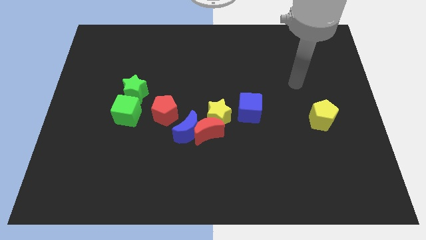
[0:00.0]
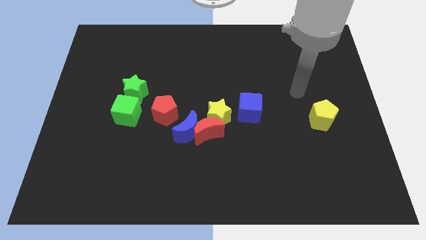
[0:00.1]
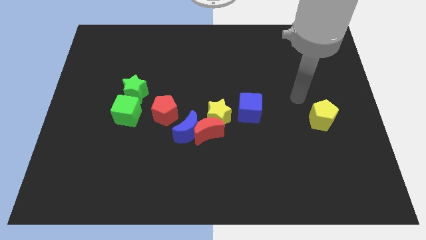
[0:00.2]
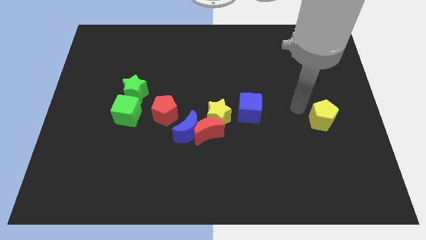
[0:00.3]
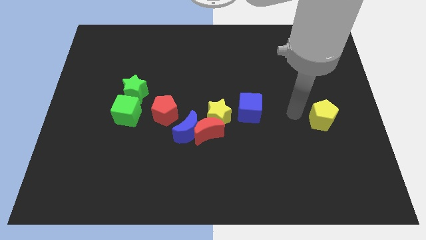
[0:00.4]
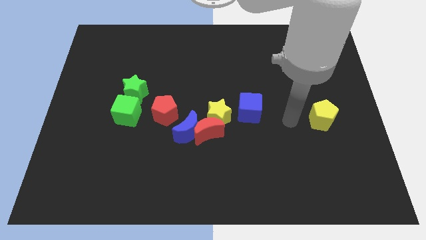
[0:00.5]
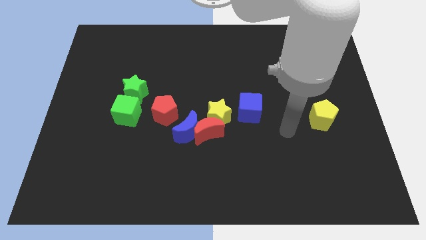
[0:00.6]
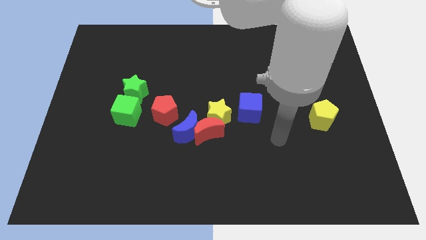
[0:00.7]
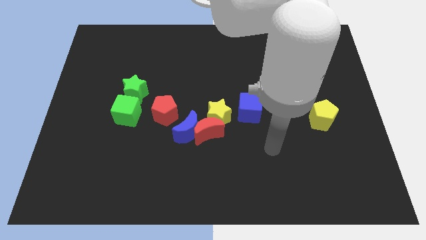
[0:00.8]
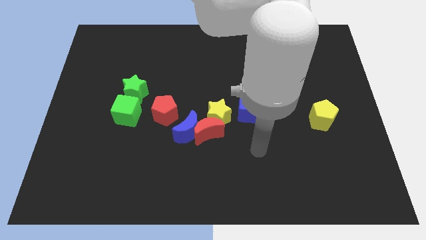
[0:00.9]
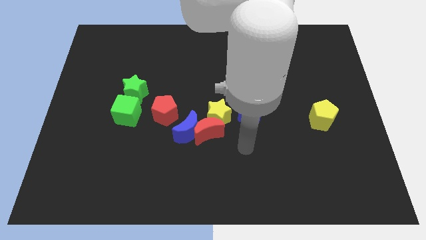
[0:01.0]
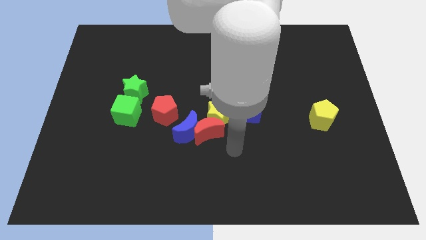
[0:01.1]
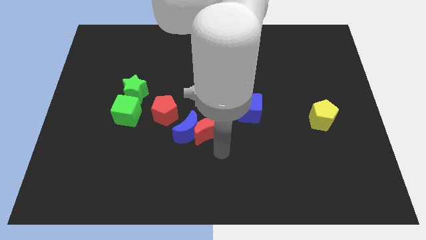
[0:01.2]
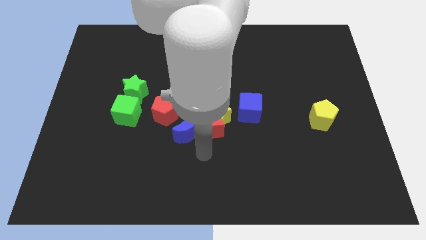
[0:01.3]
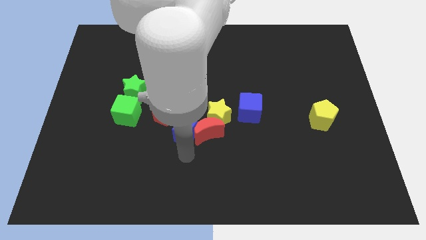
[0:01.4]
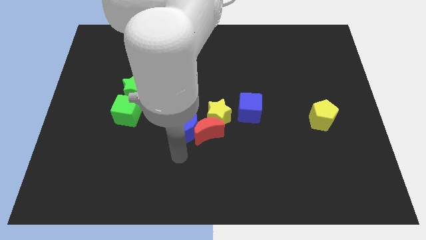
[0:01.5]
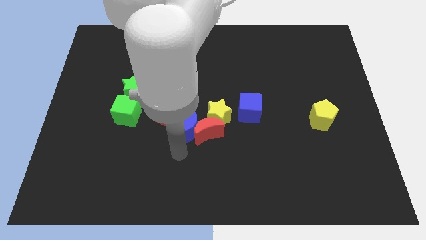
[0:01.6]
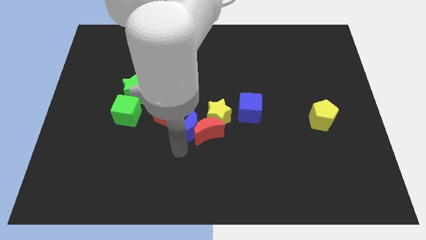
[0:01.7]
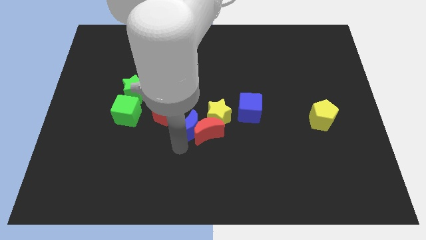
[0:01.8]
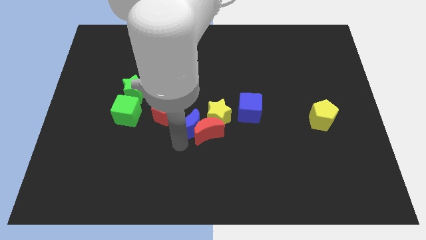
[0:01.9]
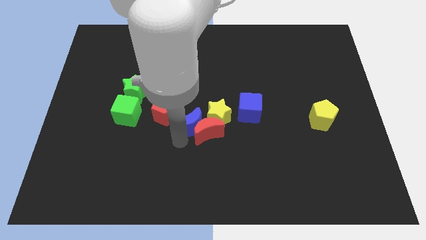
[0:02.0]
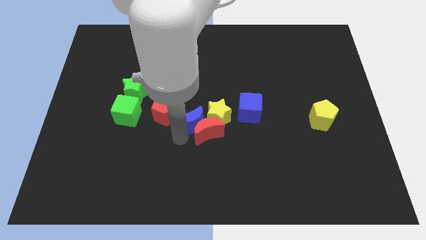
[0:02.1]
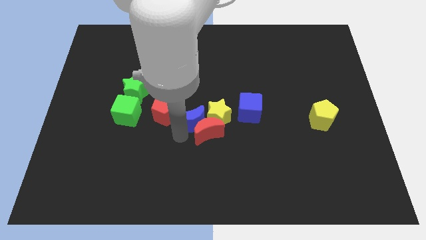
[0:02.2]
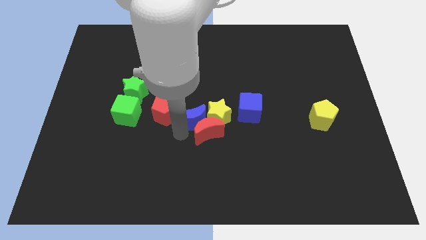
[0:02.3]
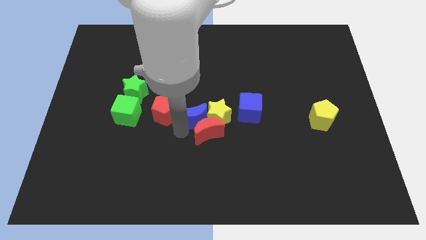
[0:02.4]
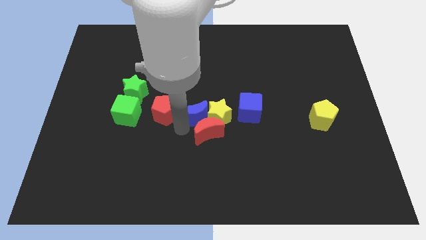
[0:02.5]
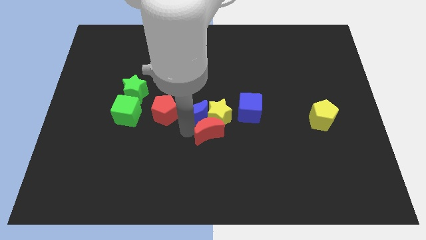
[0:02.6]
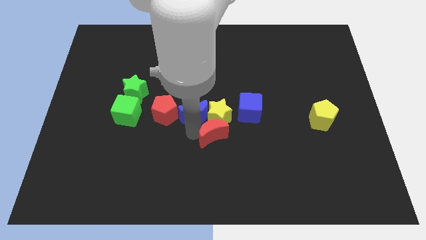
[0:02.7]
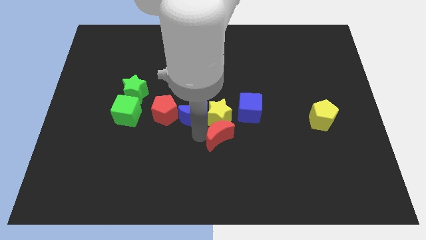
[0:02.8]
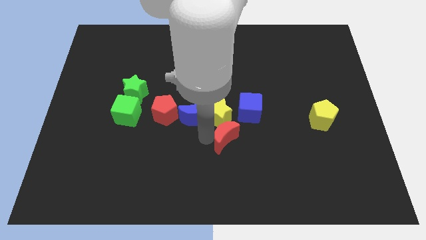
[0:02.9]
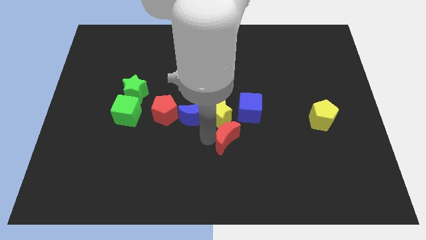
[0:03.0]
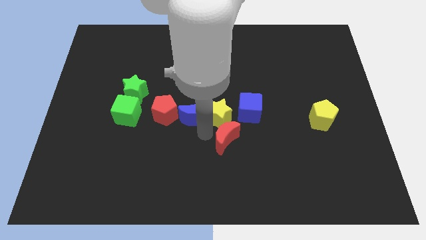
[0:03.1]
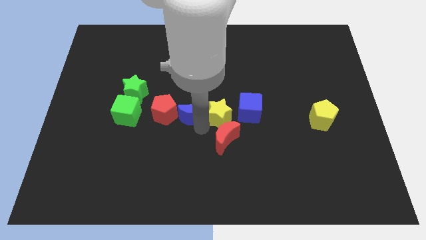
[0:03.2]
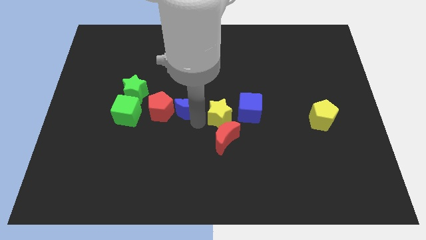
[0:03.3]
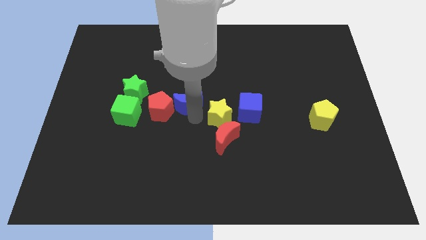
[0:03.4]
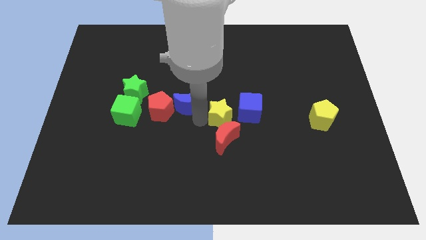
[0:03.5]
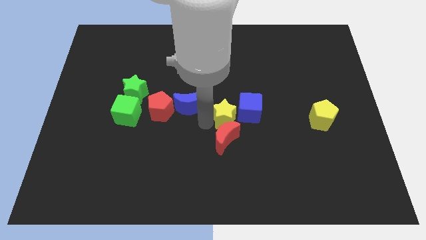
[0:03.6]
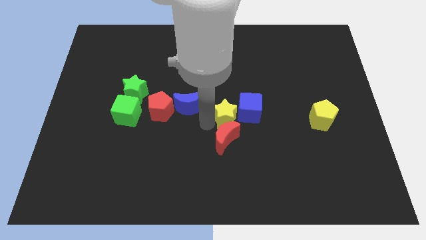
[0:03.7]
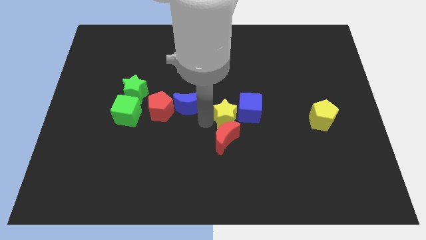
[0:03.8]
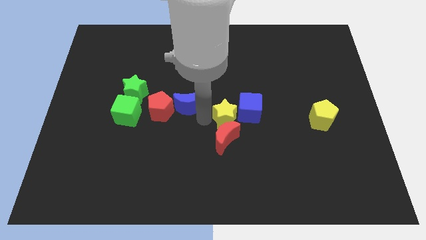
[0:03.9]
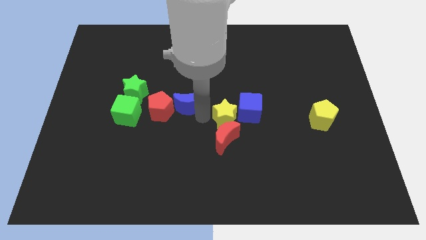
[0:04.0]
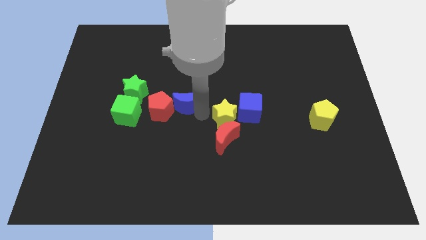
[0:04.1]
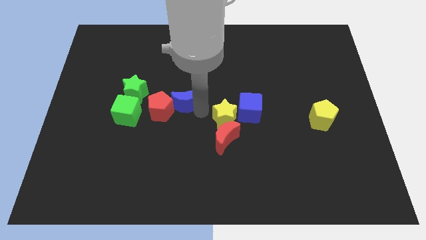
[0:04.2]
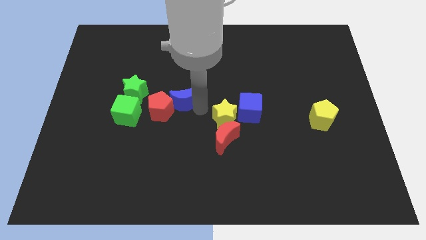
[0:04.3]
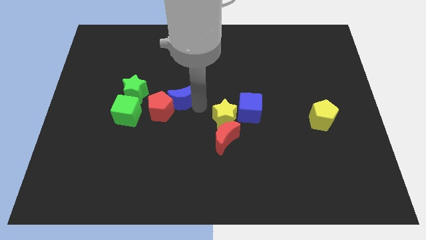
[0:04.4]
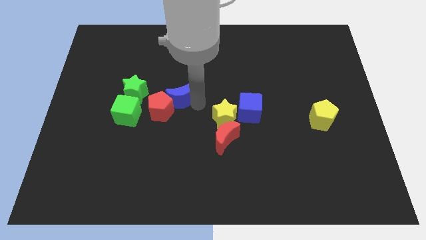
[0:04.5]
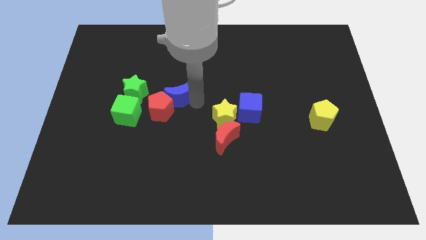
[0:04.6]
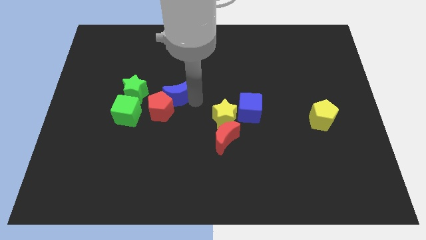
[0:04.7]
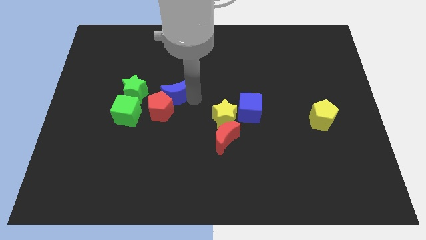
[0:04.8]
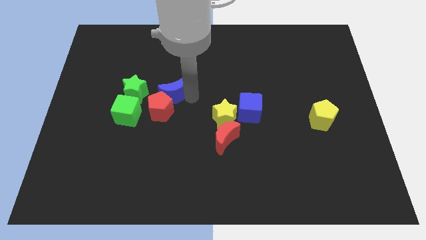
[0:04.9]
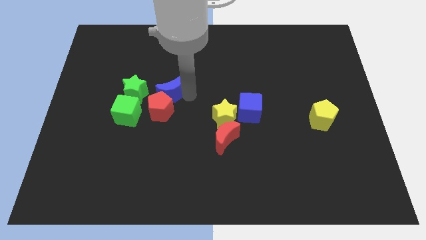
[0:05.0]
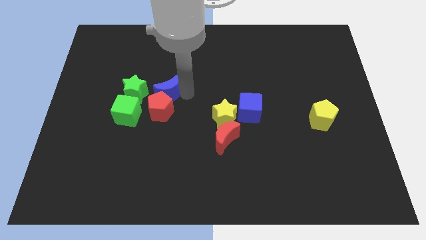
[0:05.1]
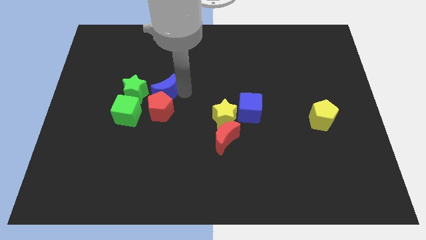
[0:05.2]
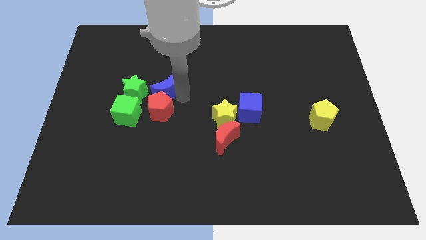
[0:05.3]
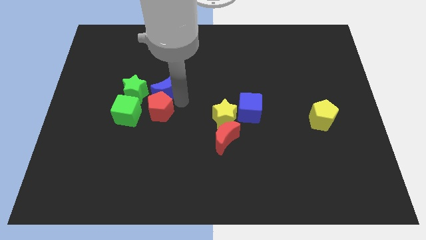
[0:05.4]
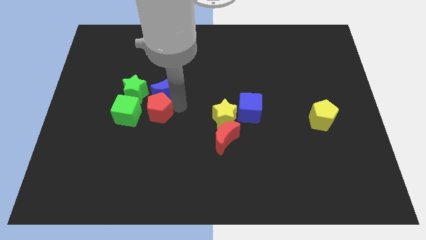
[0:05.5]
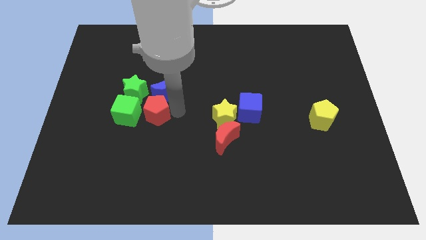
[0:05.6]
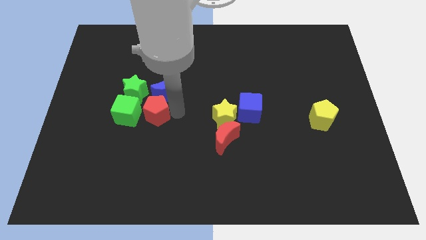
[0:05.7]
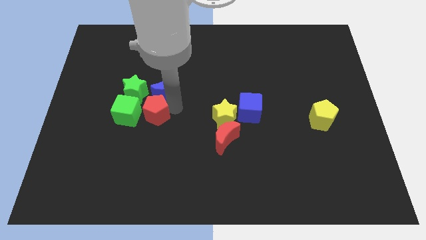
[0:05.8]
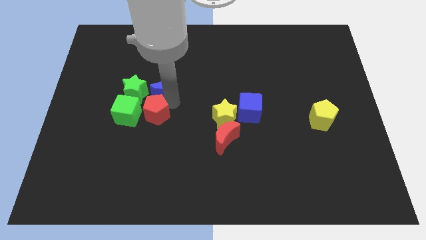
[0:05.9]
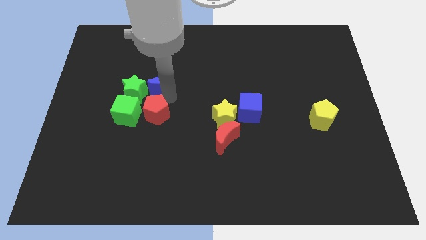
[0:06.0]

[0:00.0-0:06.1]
slide the blue moon diagonally up and to the right of the green star

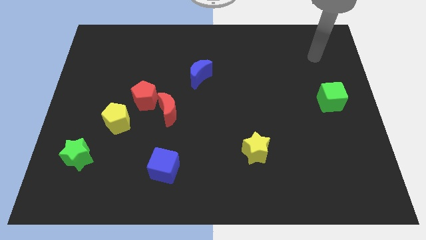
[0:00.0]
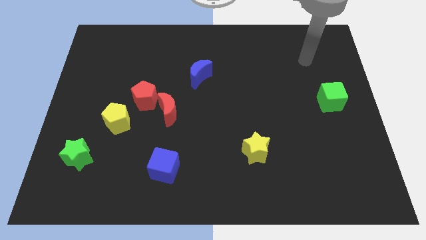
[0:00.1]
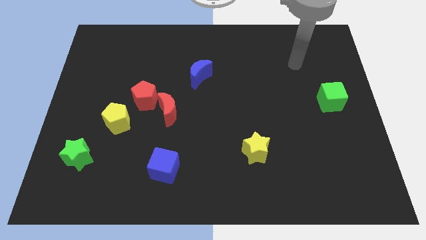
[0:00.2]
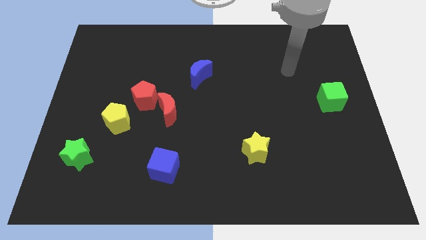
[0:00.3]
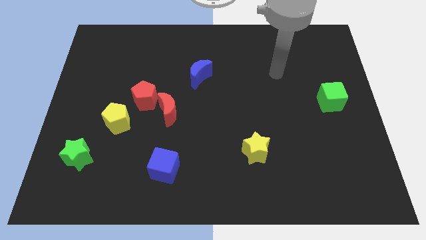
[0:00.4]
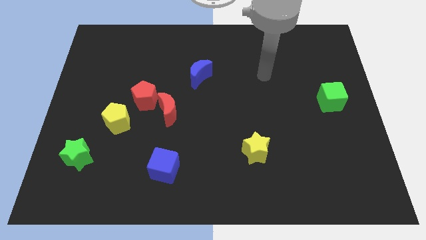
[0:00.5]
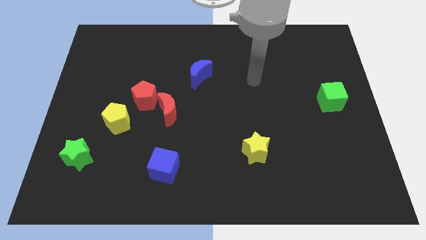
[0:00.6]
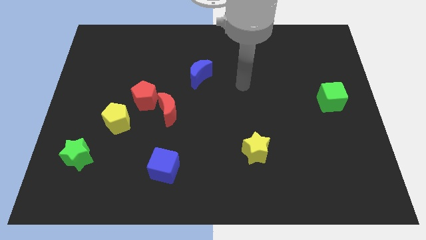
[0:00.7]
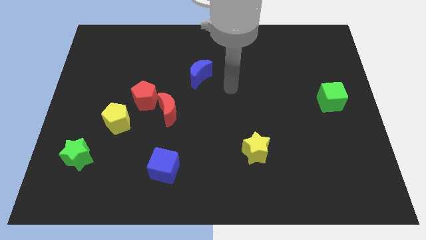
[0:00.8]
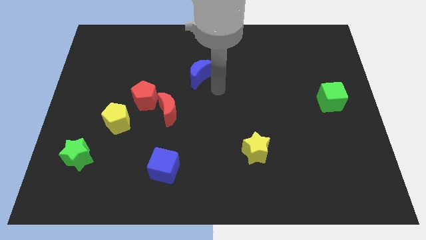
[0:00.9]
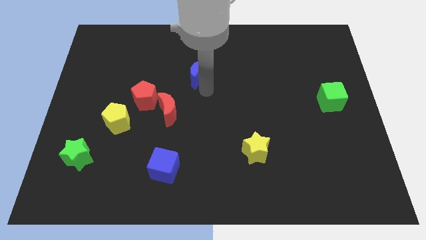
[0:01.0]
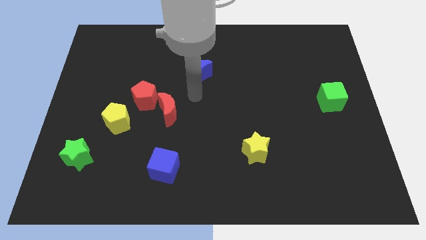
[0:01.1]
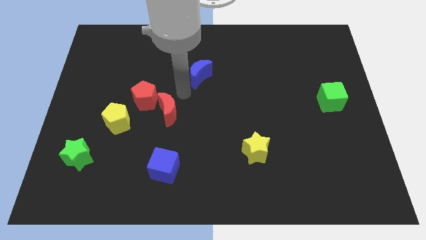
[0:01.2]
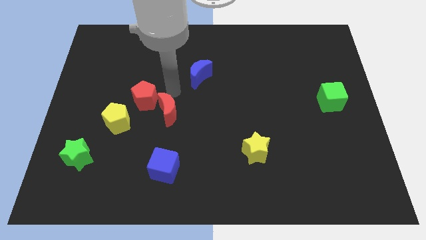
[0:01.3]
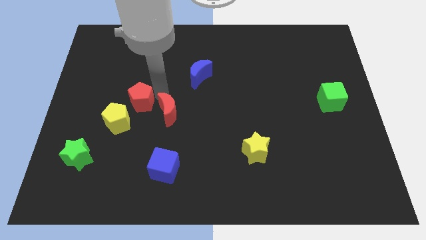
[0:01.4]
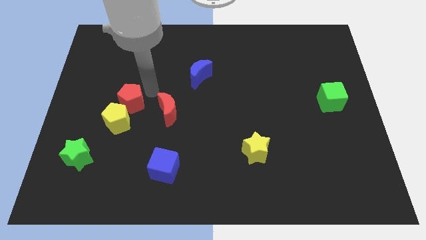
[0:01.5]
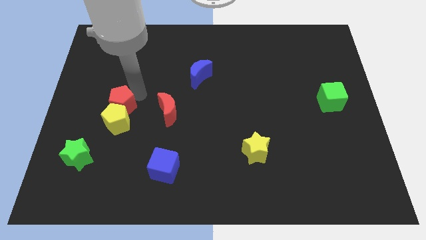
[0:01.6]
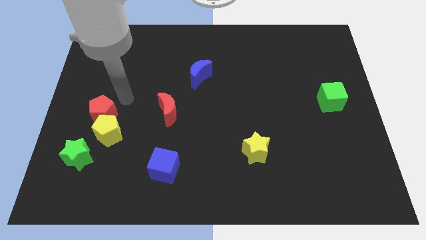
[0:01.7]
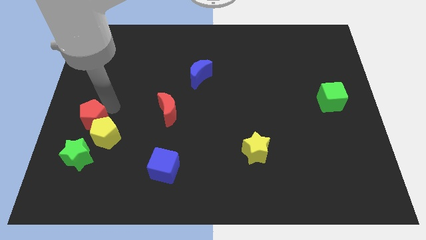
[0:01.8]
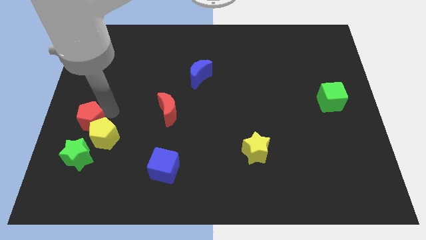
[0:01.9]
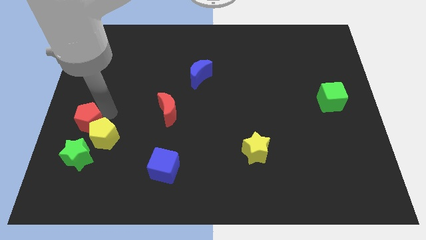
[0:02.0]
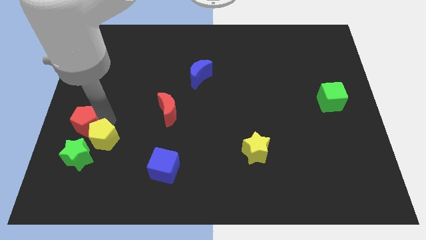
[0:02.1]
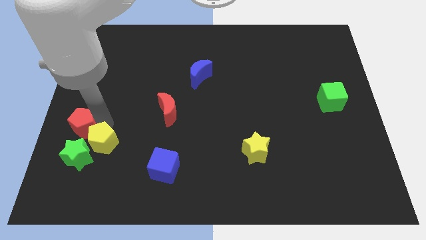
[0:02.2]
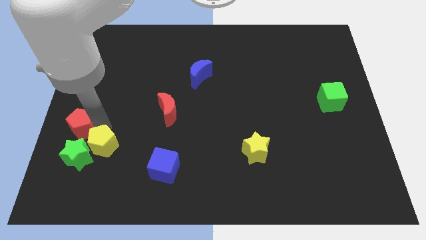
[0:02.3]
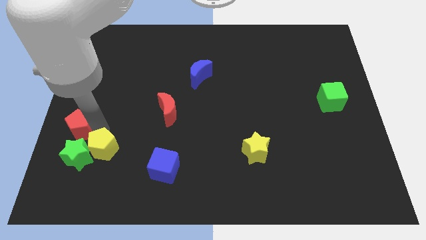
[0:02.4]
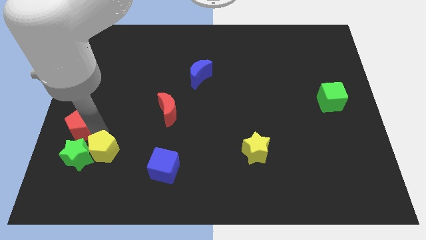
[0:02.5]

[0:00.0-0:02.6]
move the yellow pentagon to the bottom right of the green star
